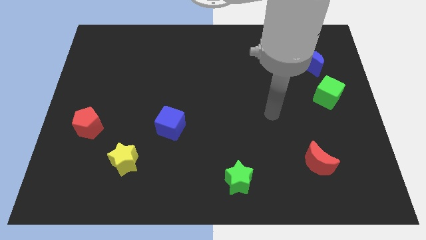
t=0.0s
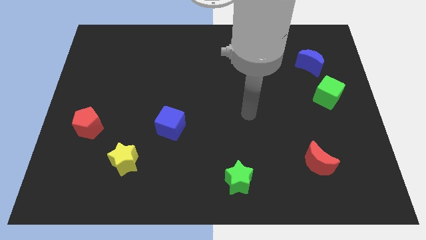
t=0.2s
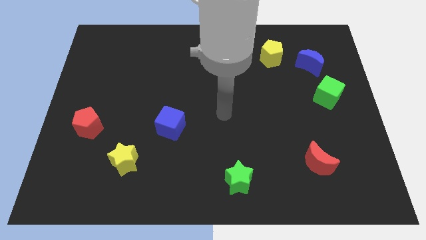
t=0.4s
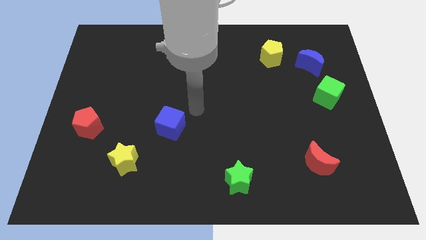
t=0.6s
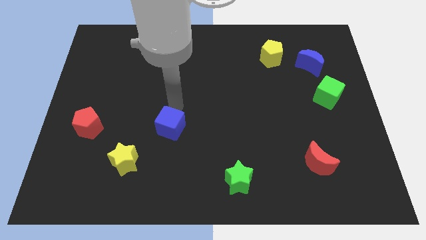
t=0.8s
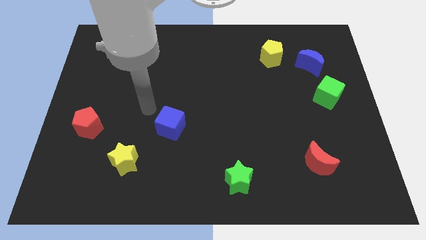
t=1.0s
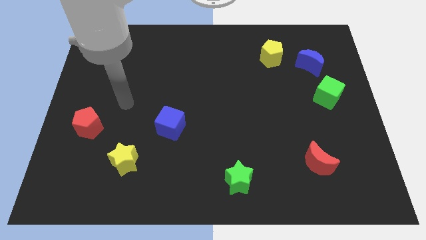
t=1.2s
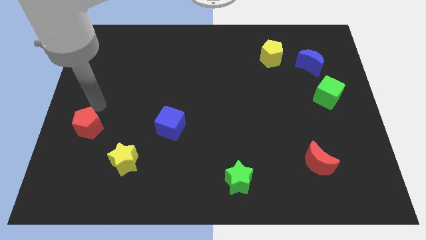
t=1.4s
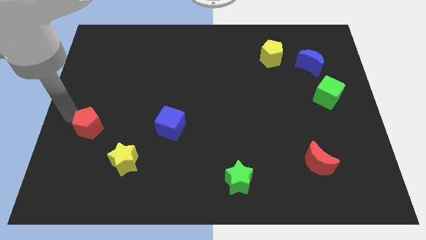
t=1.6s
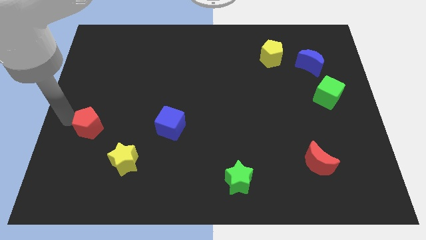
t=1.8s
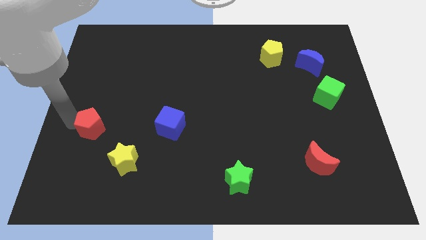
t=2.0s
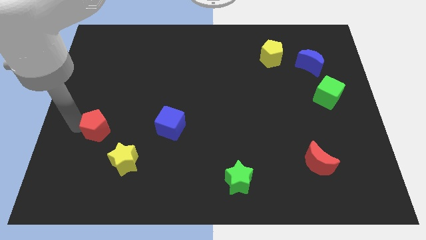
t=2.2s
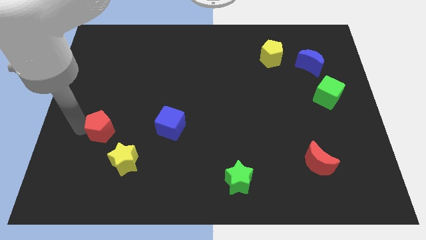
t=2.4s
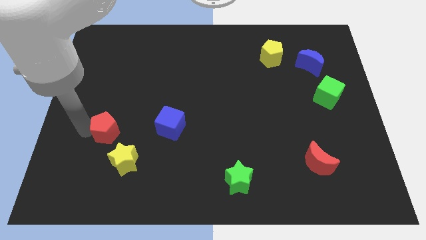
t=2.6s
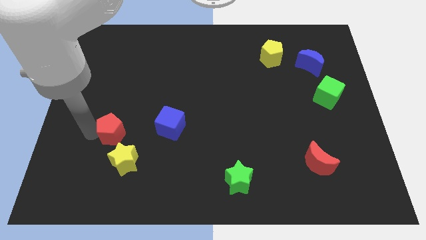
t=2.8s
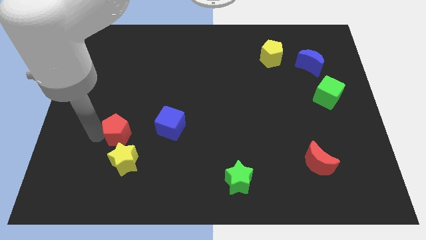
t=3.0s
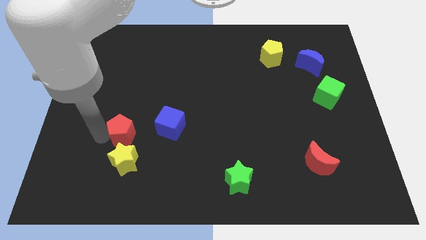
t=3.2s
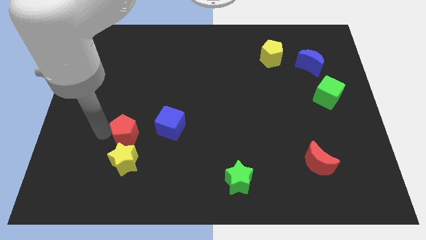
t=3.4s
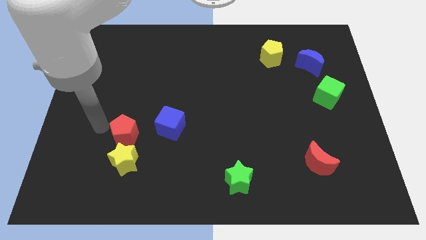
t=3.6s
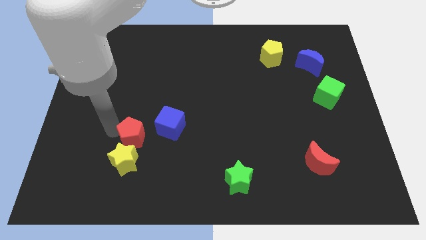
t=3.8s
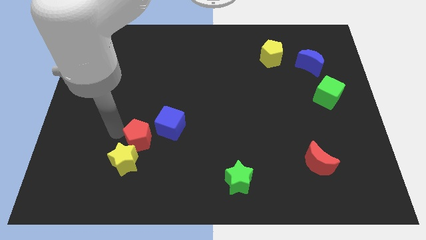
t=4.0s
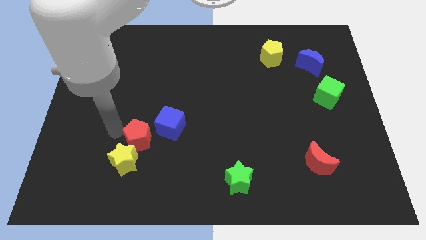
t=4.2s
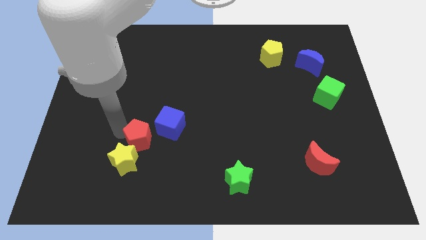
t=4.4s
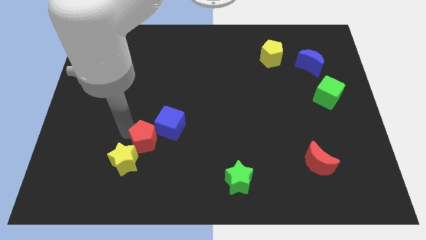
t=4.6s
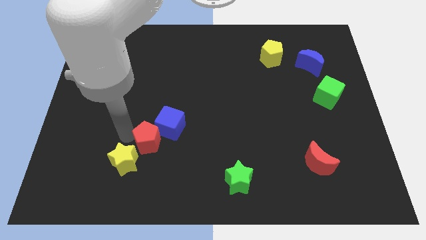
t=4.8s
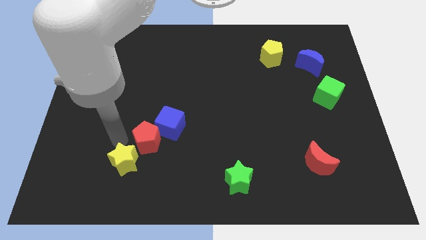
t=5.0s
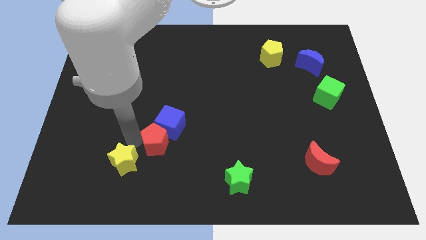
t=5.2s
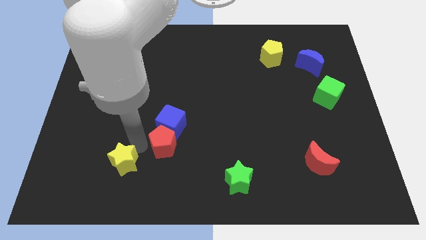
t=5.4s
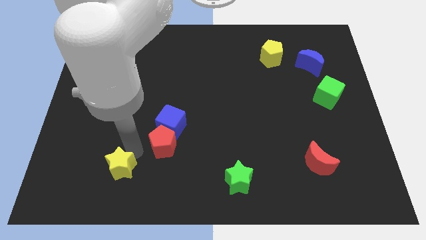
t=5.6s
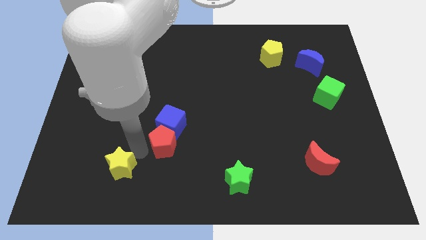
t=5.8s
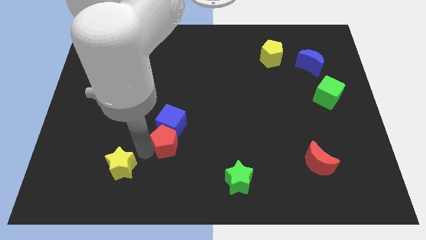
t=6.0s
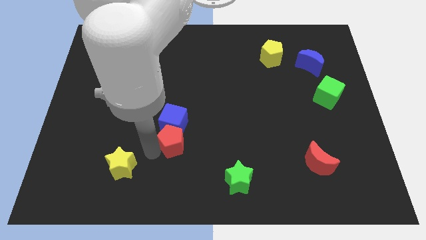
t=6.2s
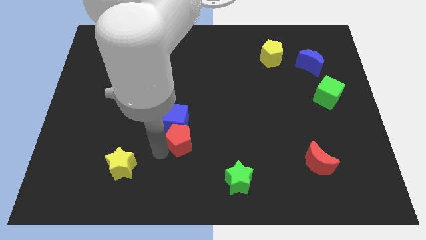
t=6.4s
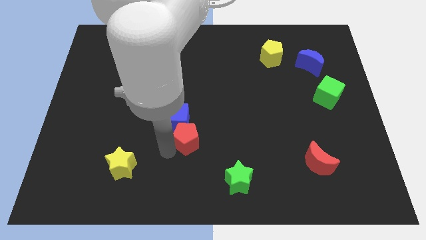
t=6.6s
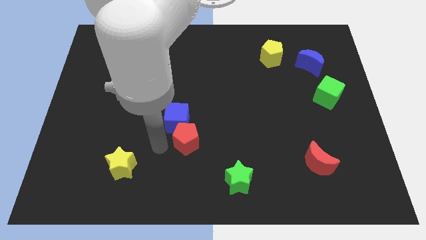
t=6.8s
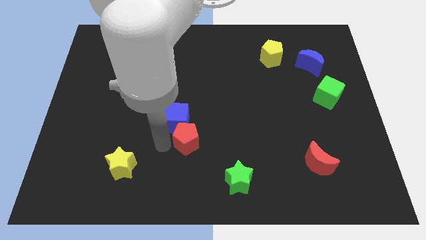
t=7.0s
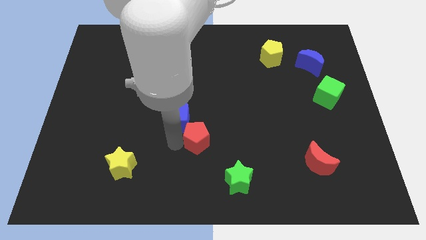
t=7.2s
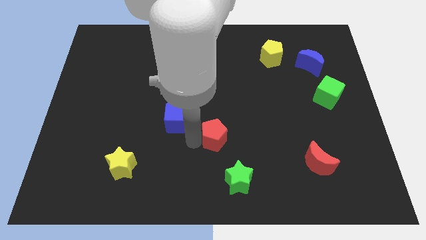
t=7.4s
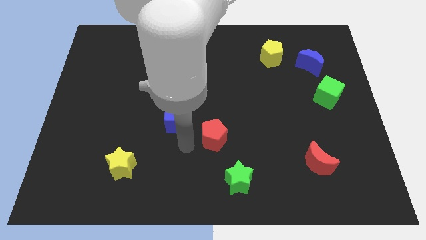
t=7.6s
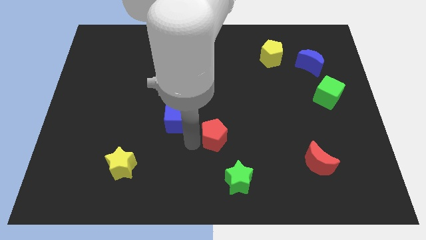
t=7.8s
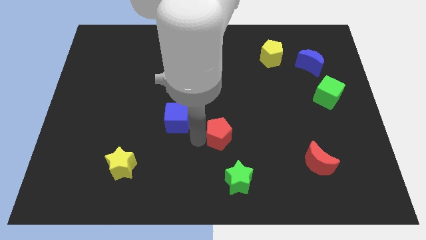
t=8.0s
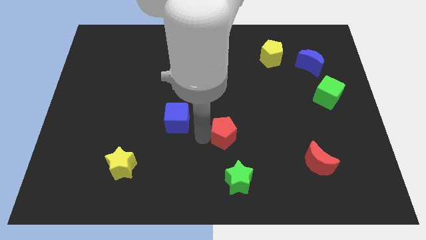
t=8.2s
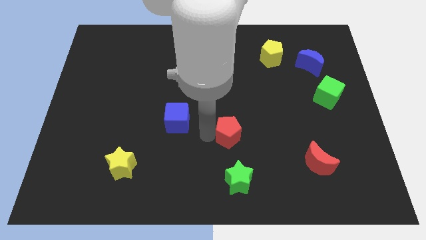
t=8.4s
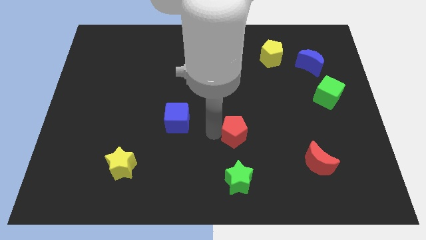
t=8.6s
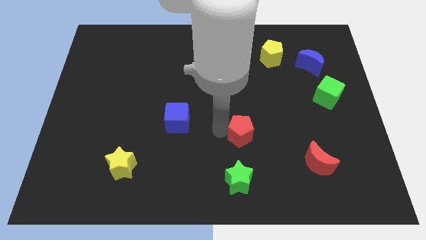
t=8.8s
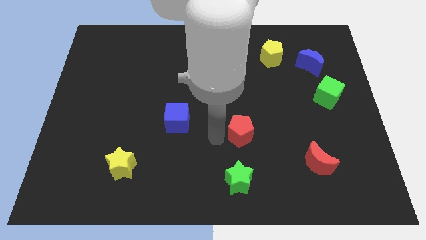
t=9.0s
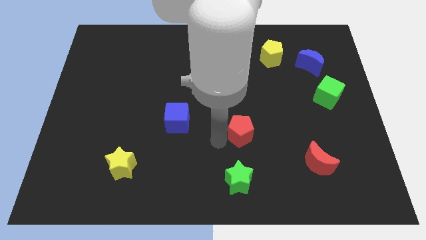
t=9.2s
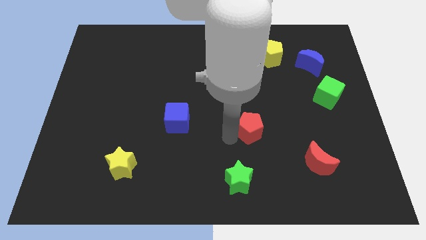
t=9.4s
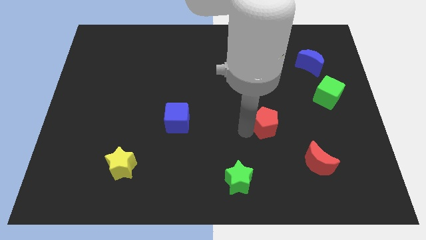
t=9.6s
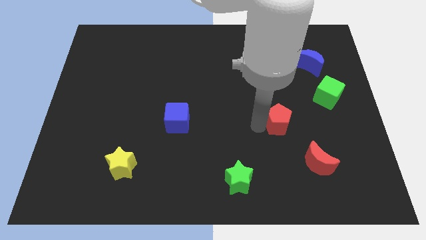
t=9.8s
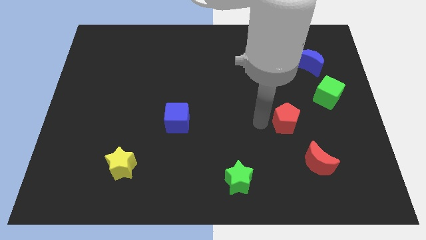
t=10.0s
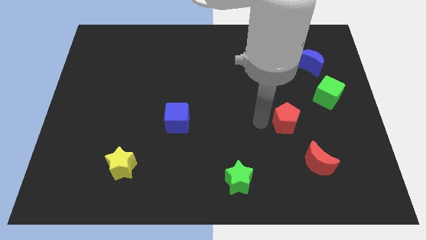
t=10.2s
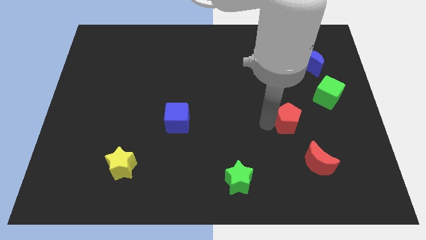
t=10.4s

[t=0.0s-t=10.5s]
put the red pentagon to the top side of the red moon

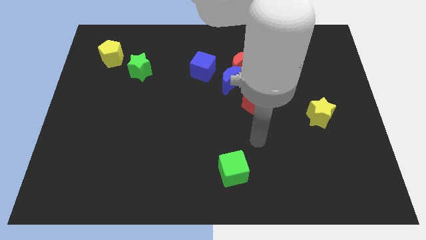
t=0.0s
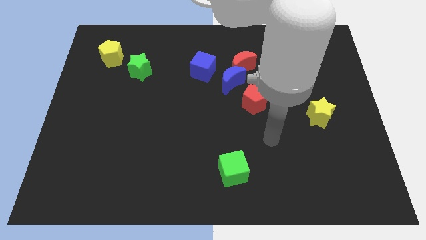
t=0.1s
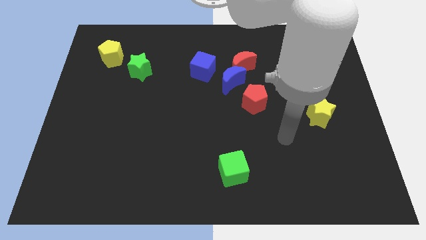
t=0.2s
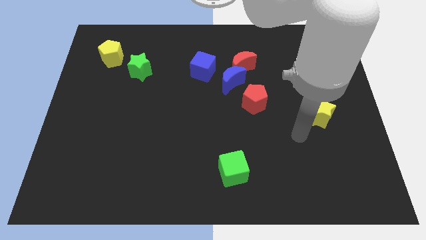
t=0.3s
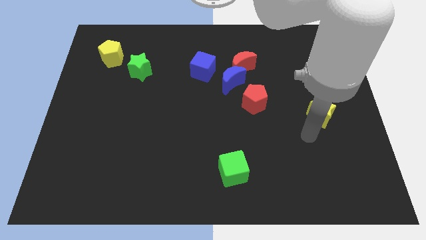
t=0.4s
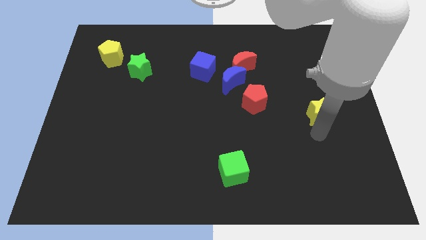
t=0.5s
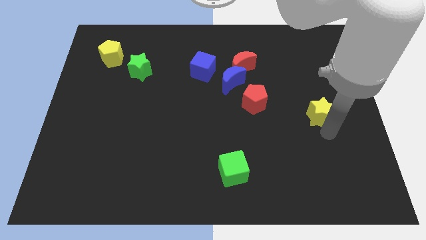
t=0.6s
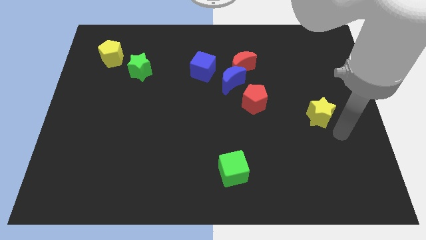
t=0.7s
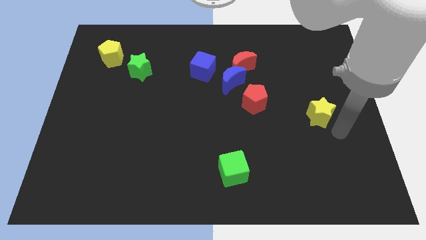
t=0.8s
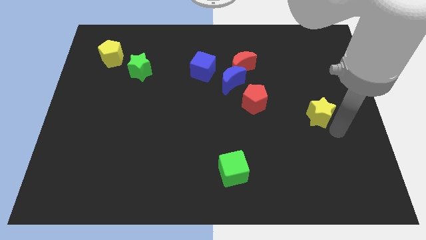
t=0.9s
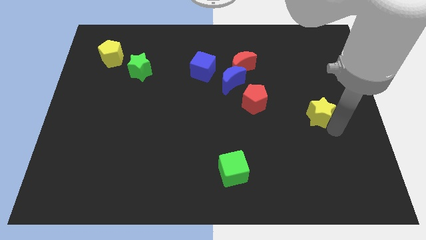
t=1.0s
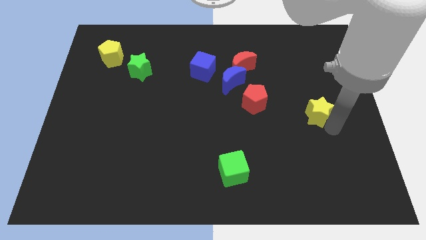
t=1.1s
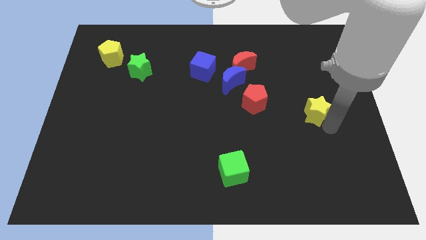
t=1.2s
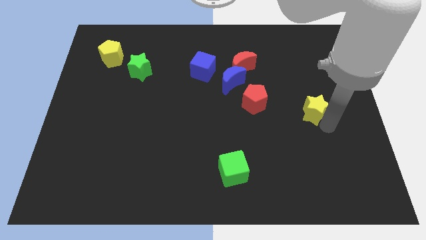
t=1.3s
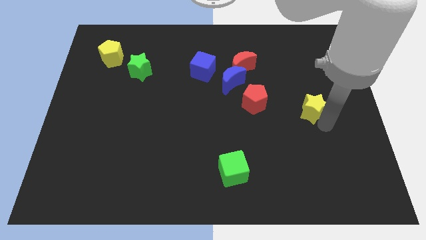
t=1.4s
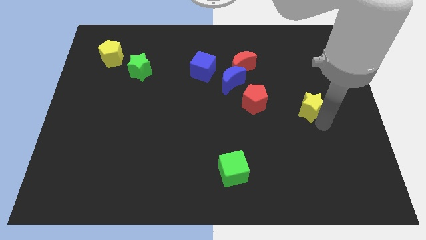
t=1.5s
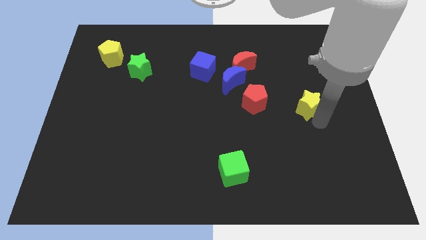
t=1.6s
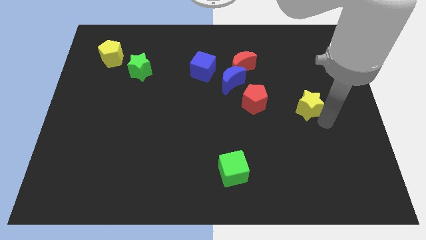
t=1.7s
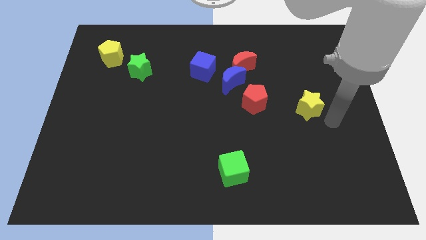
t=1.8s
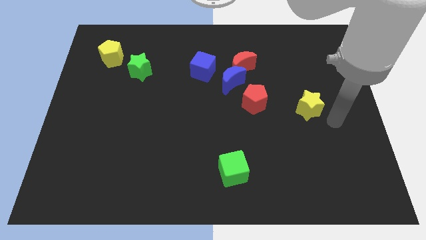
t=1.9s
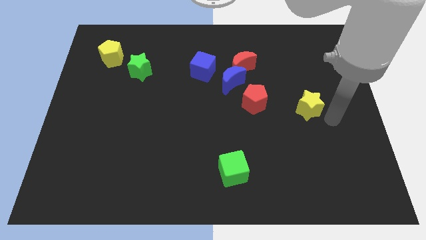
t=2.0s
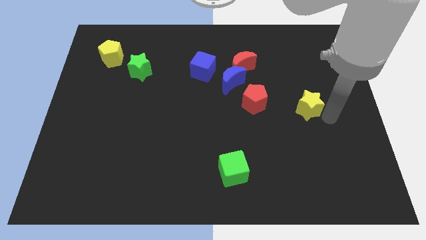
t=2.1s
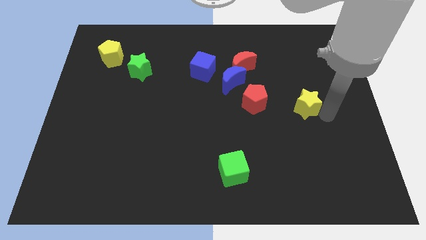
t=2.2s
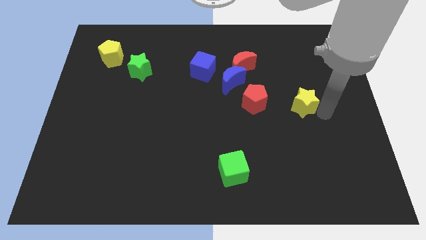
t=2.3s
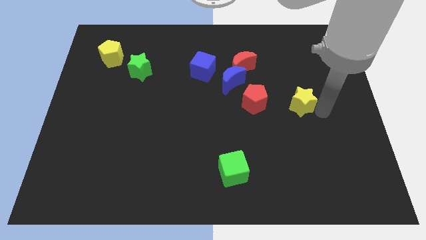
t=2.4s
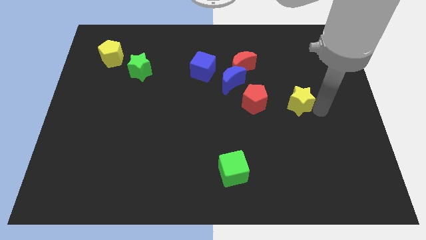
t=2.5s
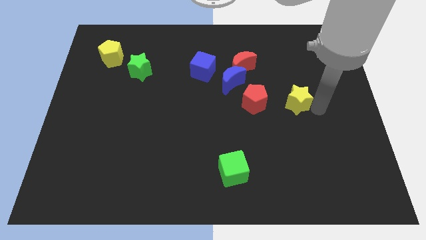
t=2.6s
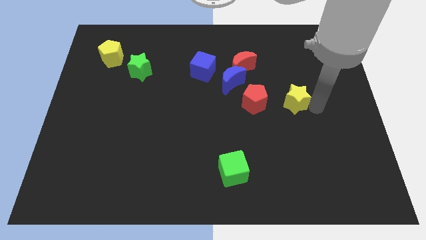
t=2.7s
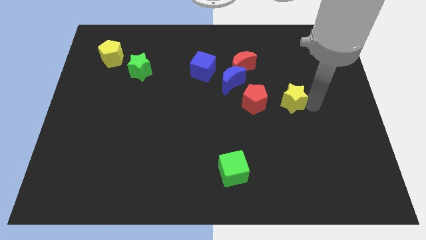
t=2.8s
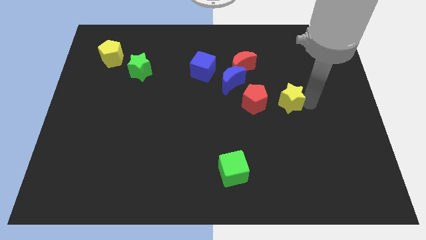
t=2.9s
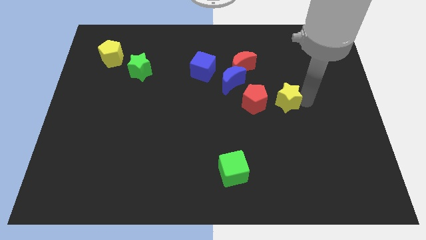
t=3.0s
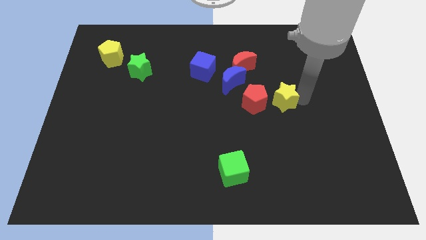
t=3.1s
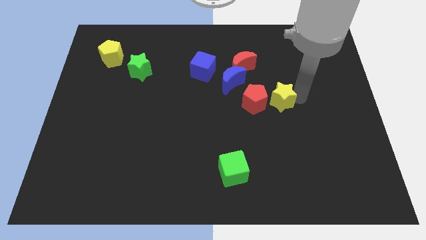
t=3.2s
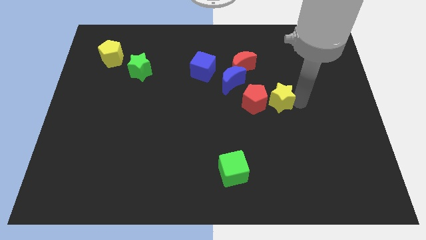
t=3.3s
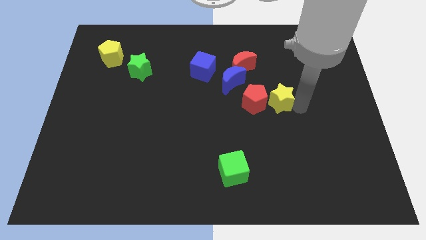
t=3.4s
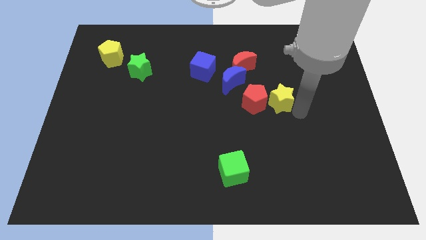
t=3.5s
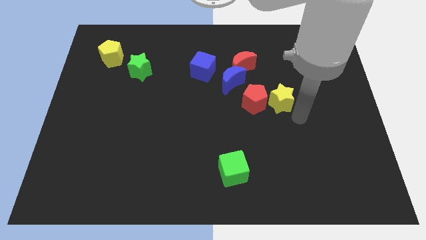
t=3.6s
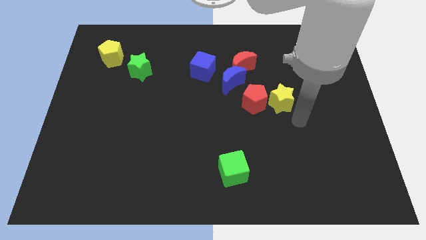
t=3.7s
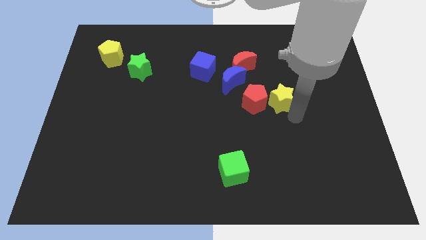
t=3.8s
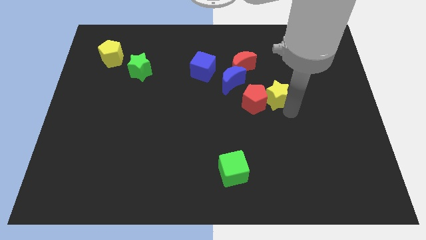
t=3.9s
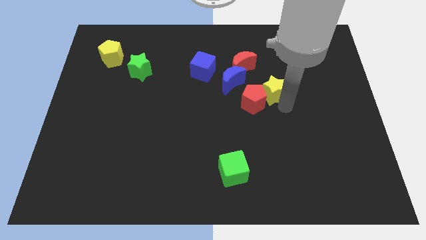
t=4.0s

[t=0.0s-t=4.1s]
move the yellow star diagonally down and to the right of the red moon
